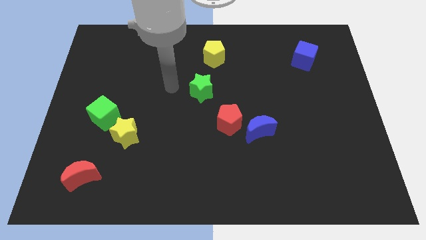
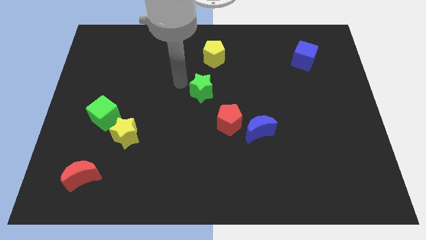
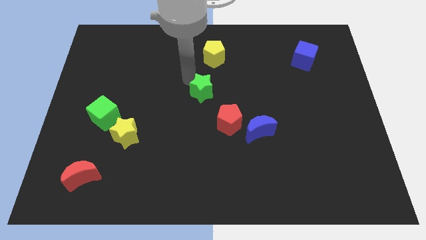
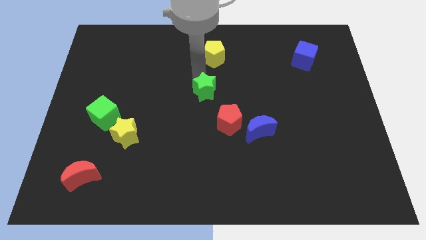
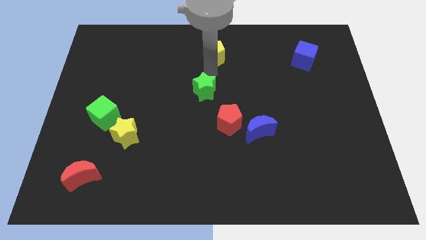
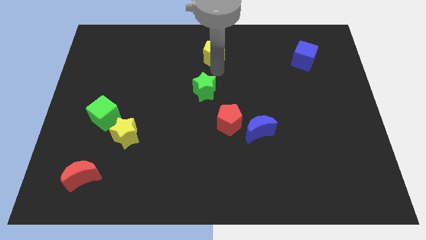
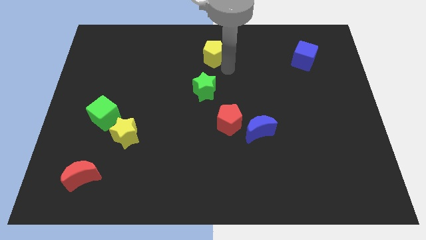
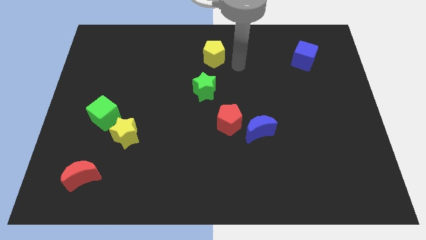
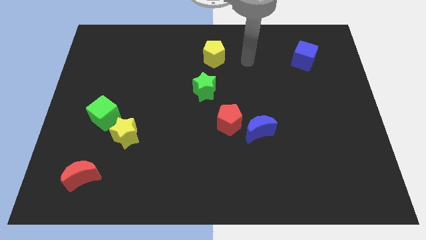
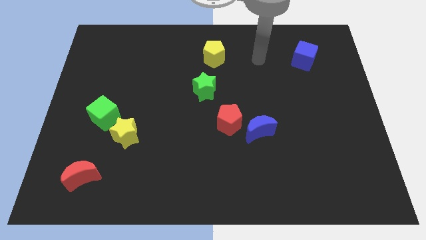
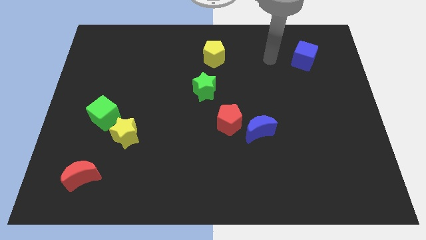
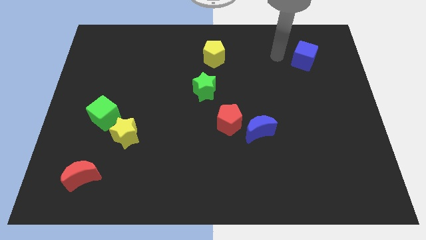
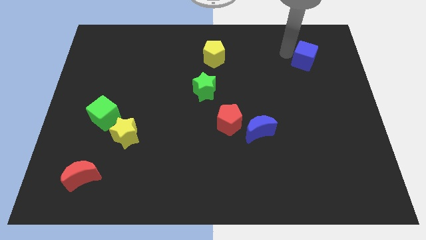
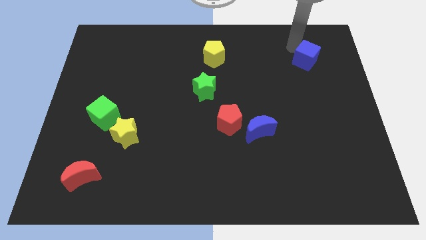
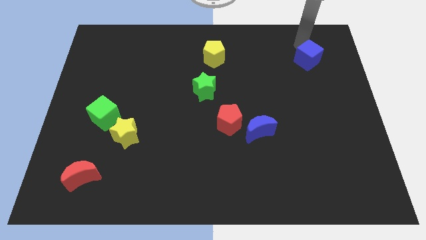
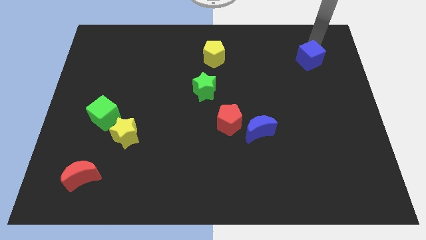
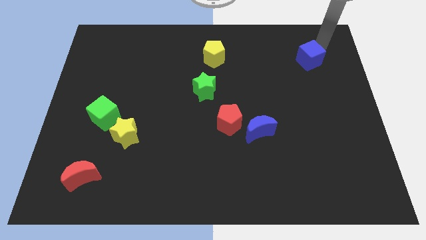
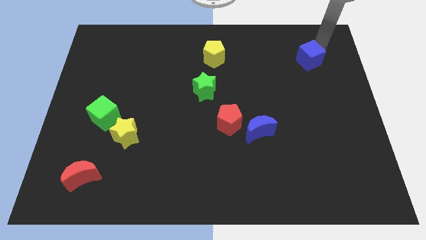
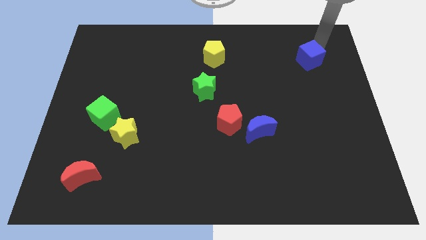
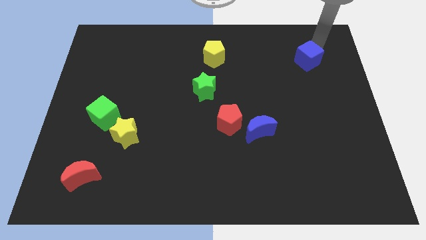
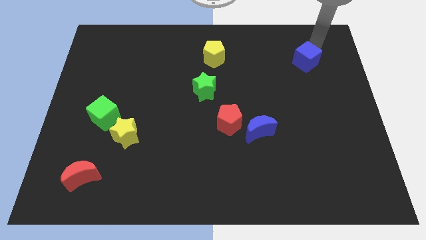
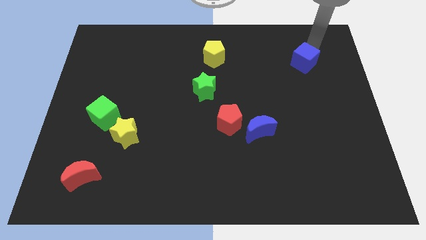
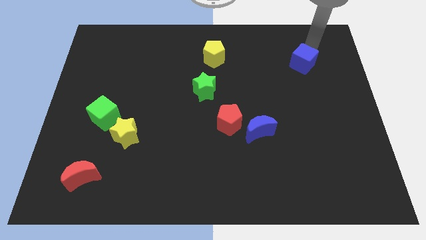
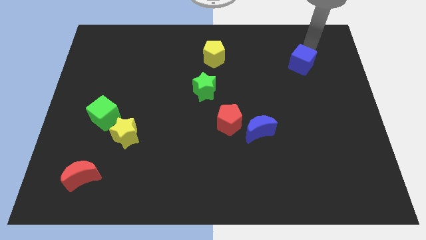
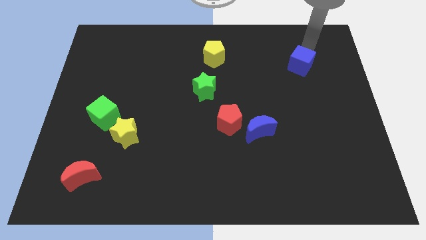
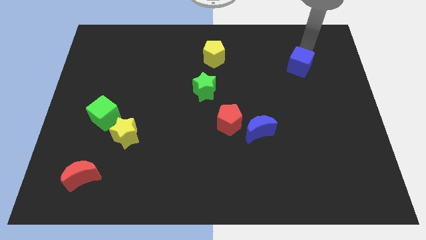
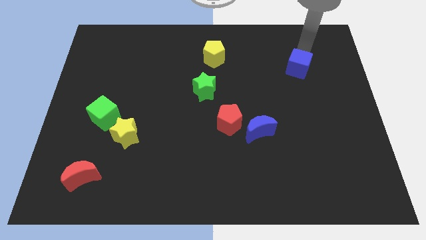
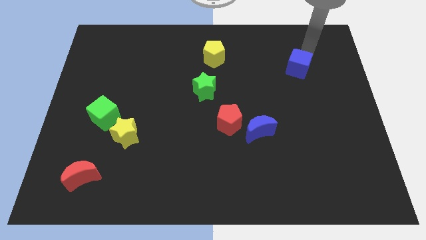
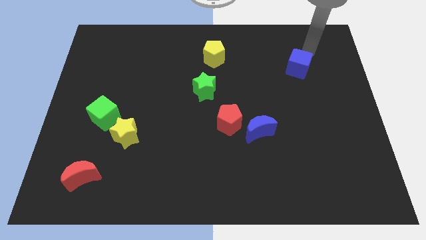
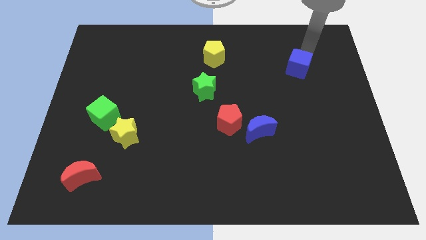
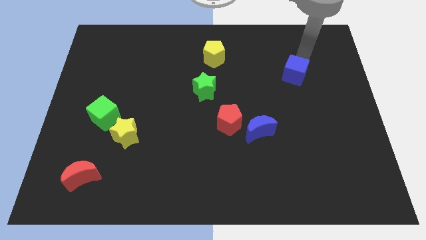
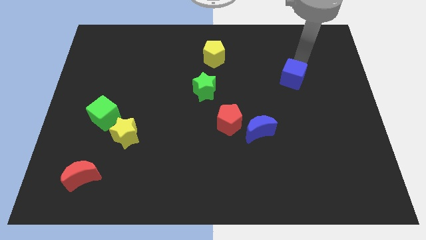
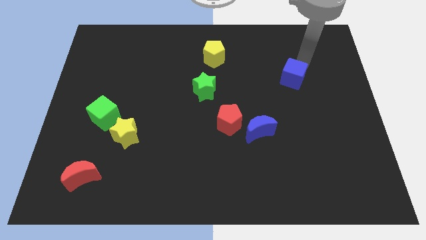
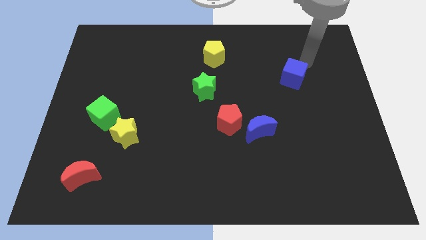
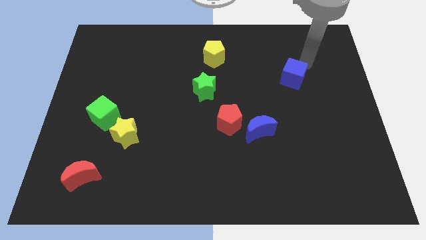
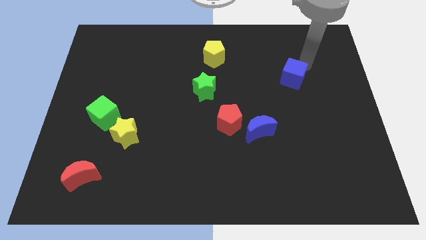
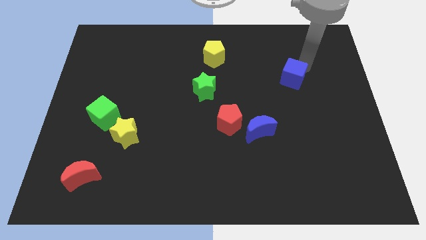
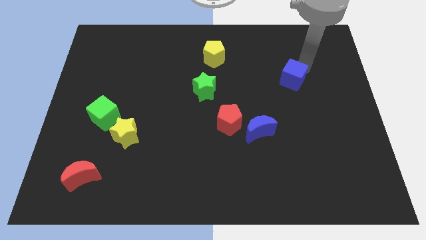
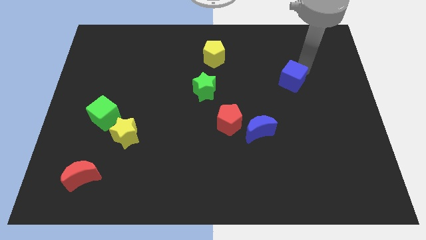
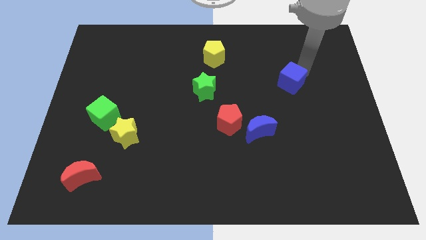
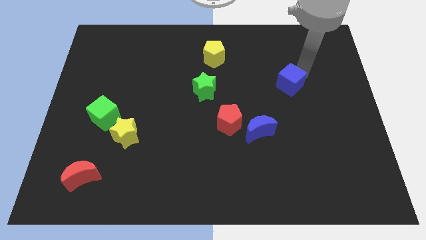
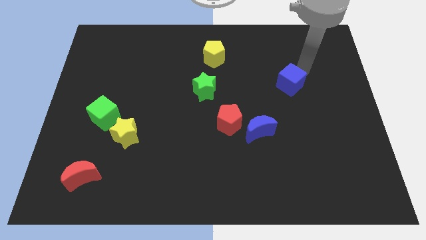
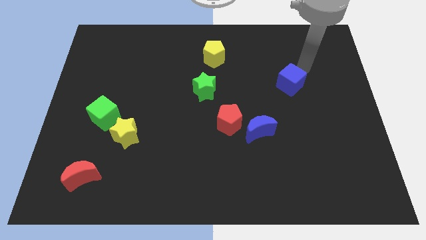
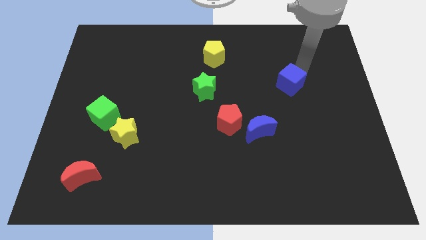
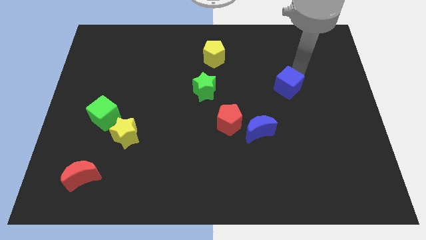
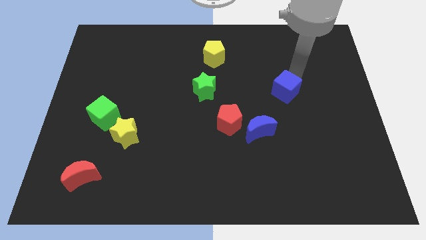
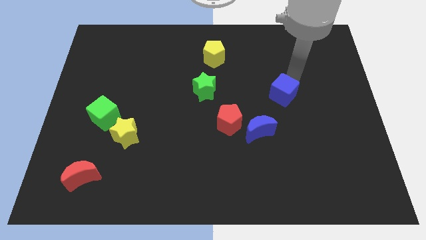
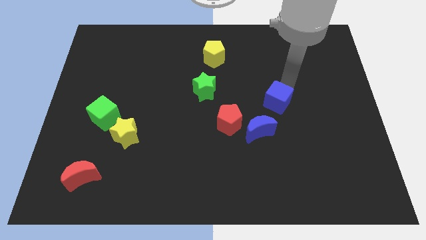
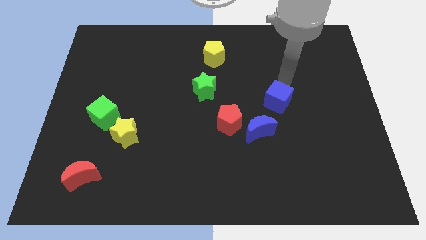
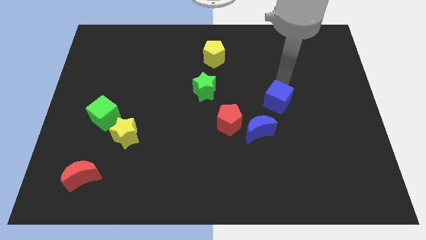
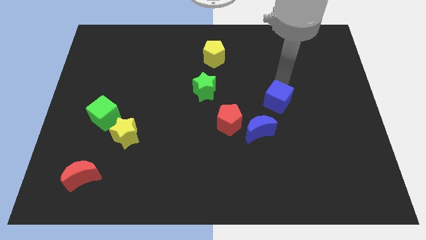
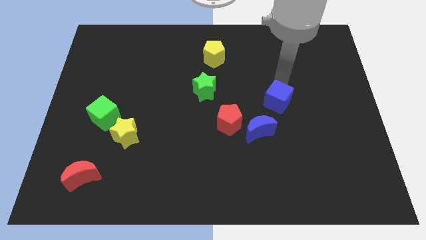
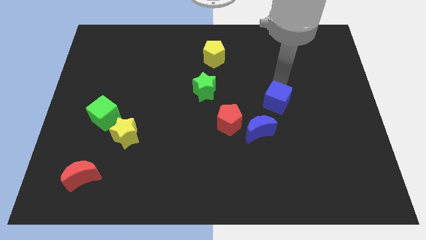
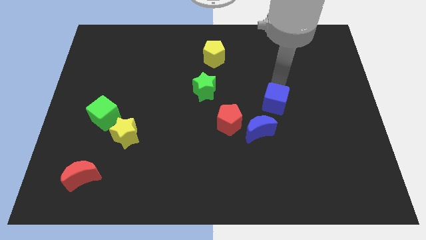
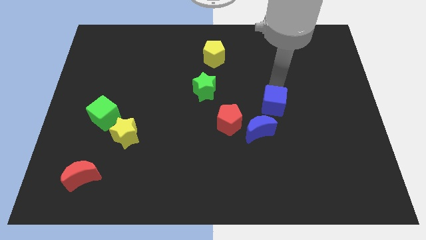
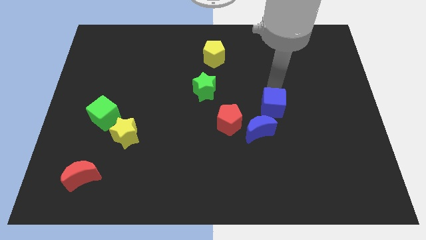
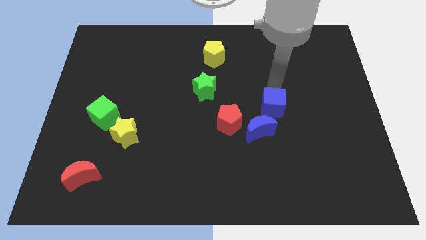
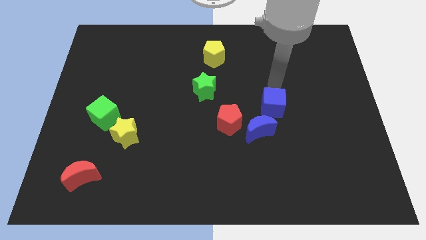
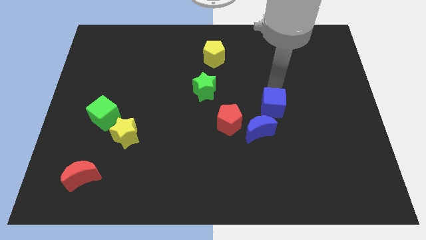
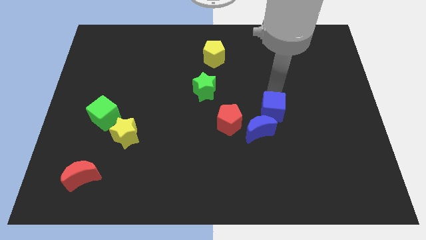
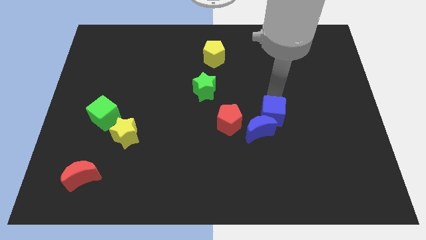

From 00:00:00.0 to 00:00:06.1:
move the blue cube to the blue moon

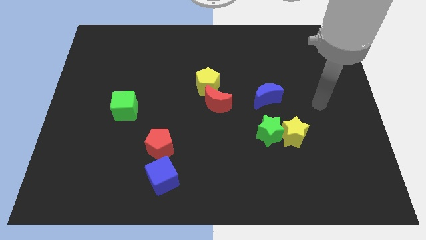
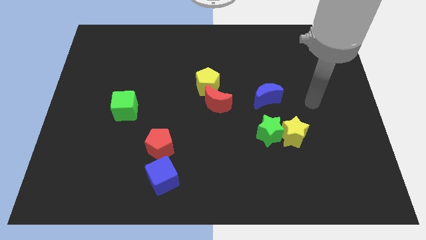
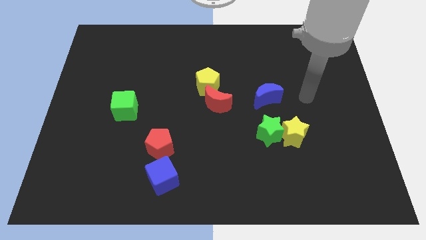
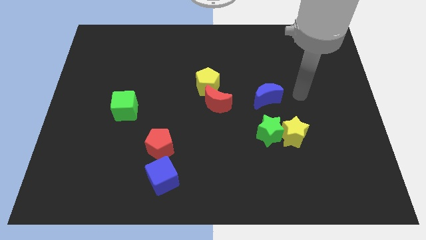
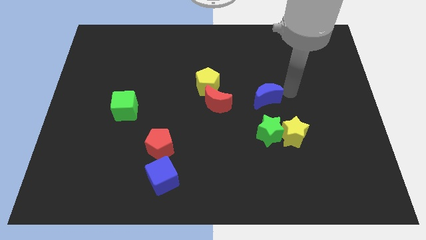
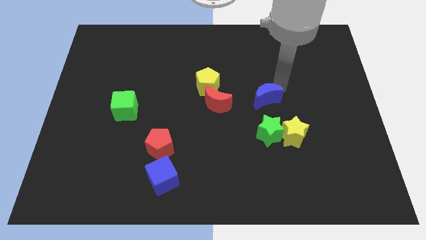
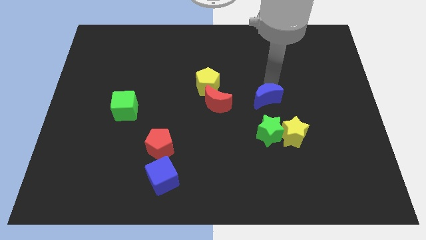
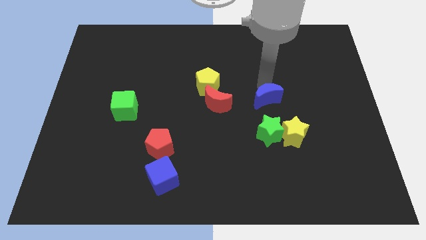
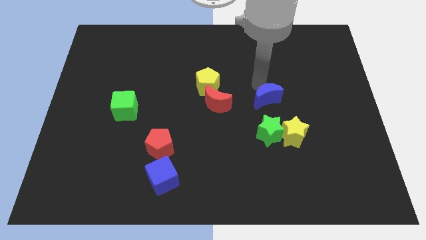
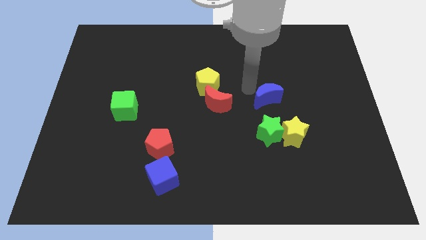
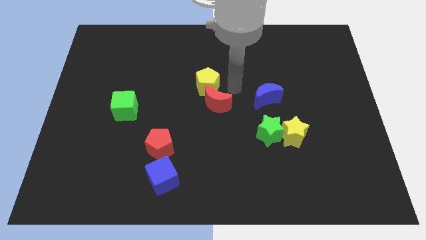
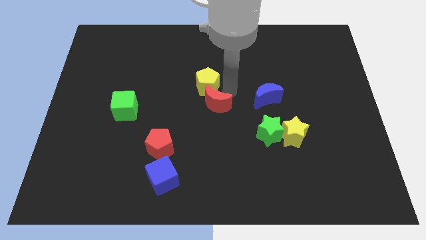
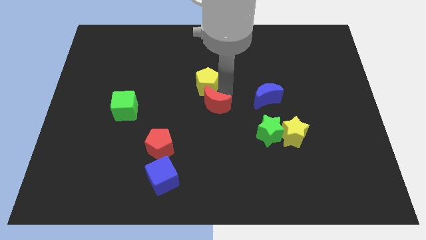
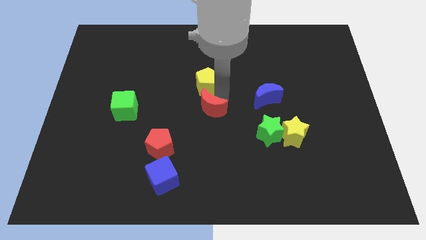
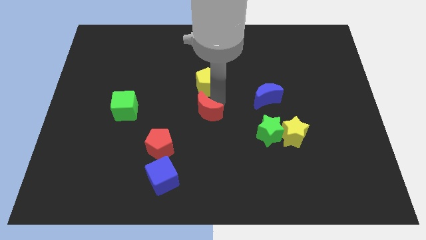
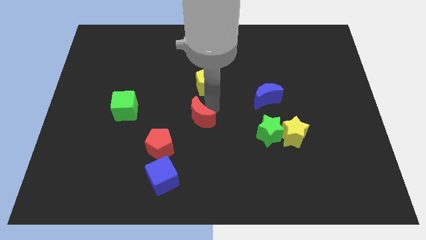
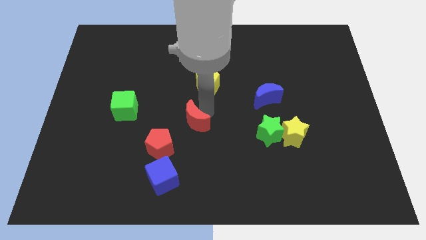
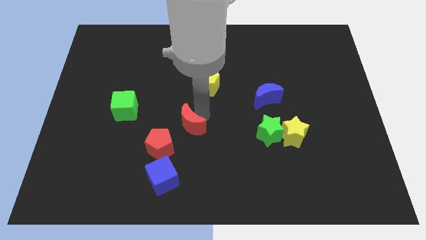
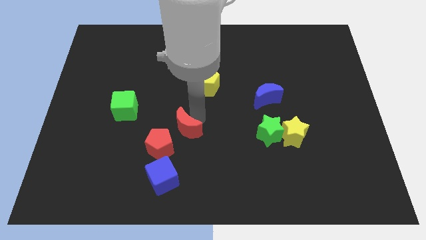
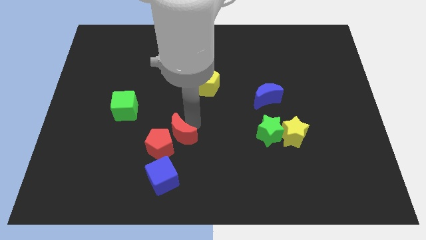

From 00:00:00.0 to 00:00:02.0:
put the red moon close to the red pentagon

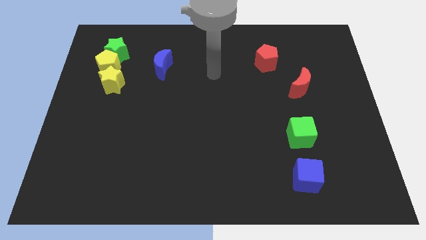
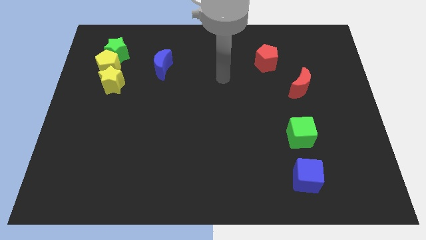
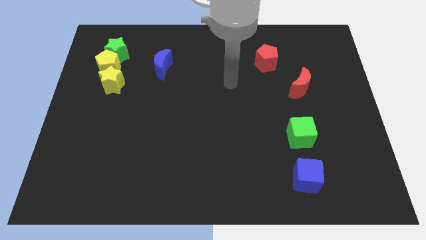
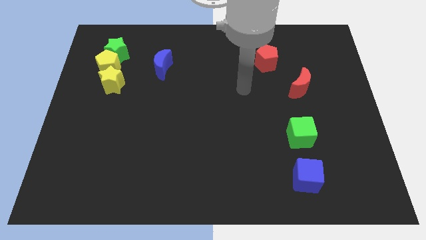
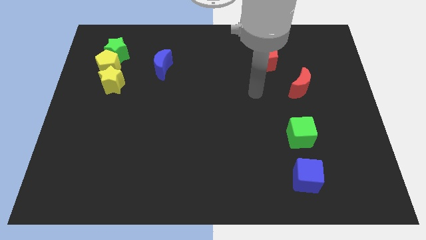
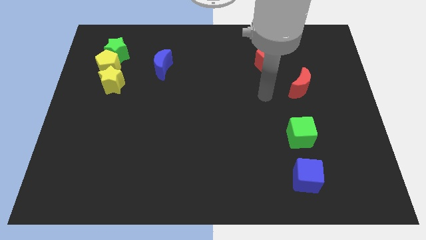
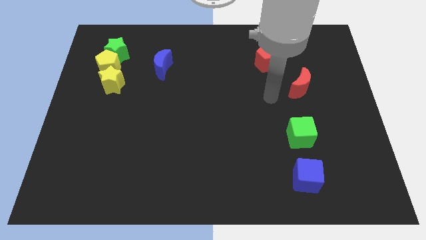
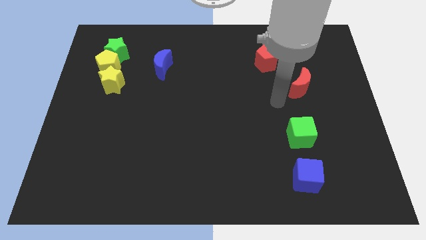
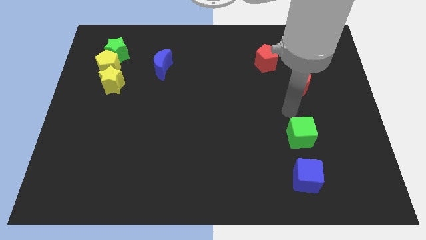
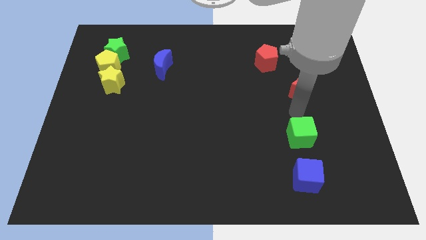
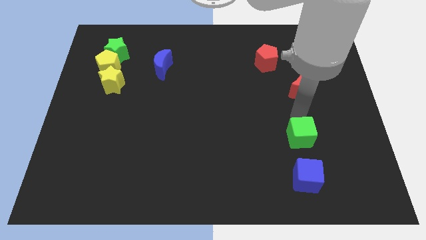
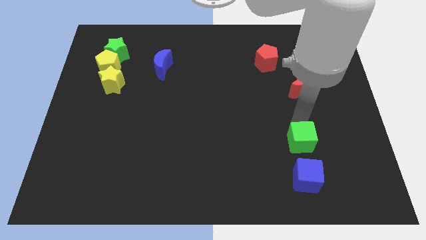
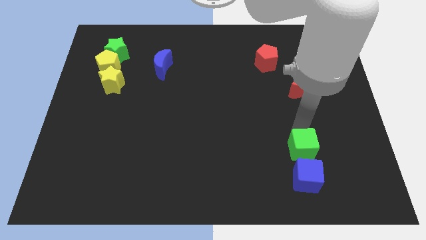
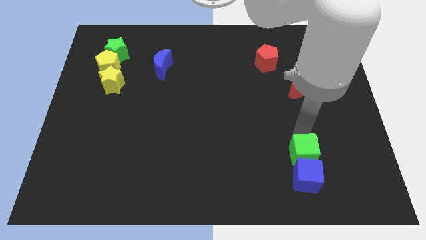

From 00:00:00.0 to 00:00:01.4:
put the green cube to the blue cube
